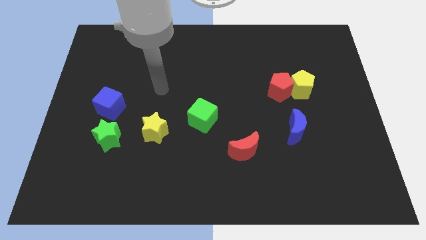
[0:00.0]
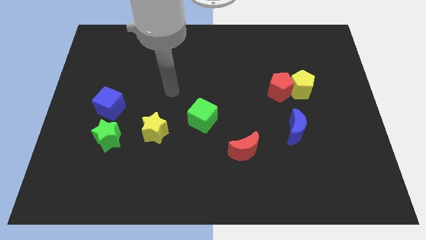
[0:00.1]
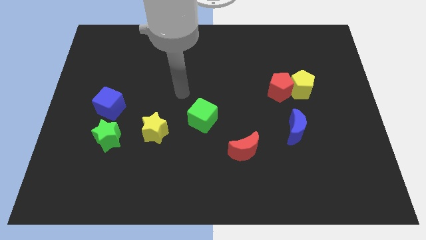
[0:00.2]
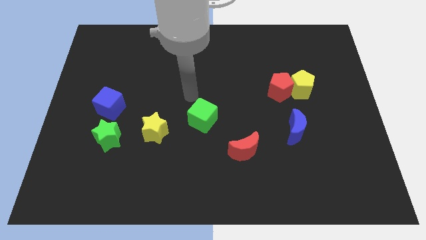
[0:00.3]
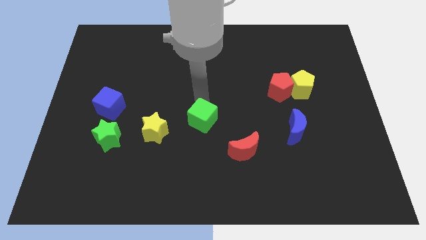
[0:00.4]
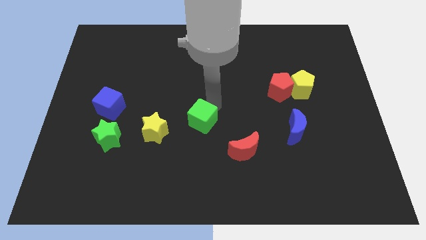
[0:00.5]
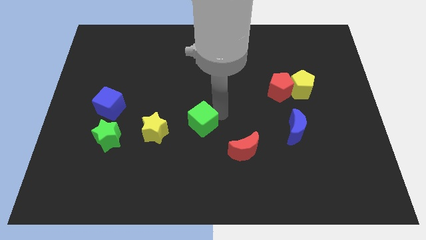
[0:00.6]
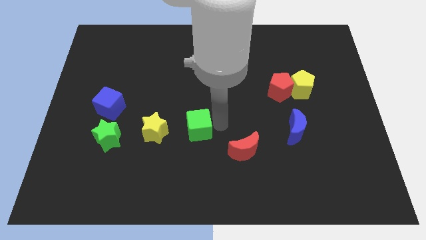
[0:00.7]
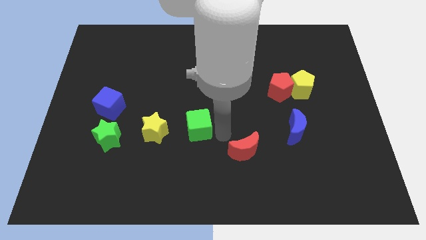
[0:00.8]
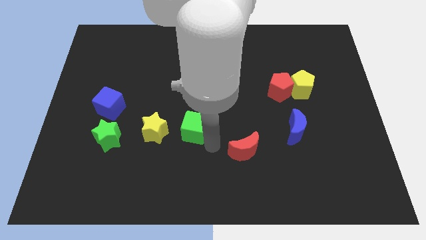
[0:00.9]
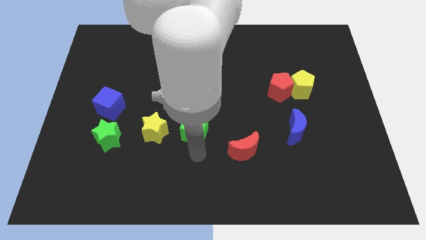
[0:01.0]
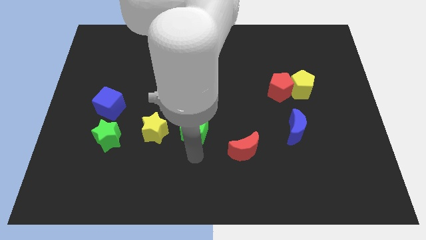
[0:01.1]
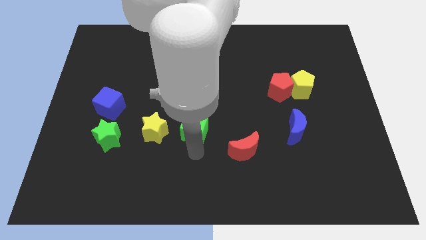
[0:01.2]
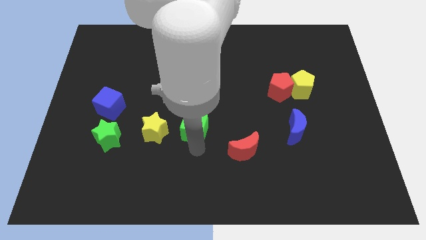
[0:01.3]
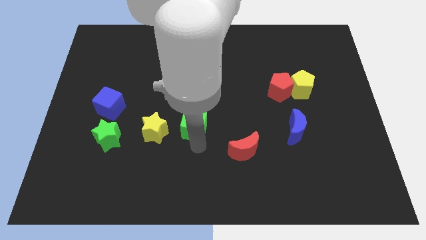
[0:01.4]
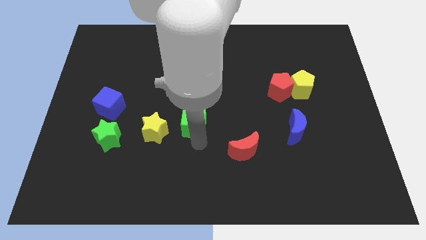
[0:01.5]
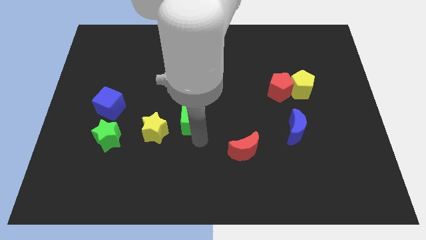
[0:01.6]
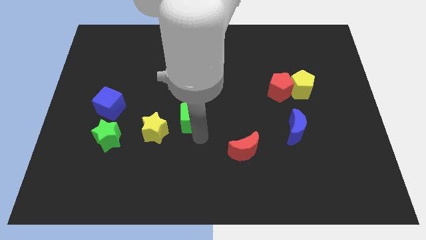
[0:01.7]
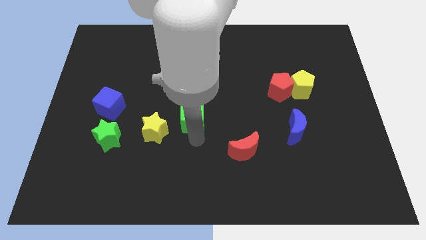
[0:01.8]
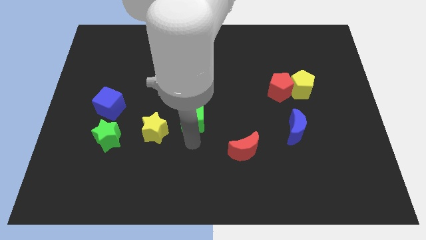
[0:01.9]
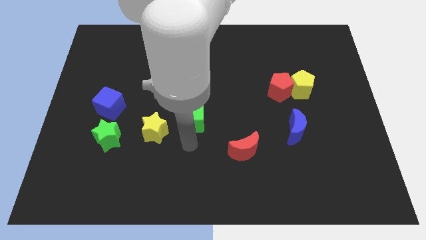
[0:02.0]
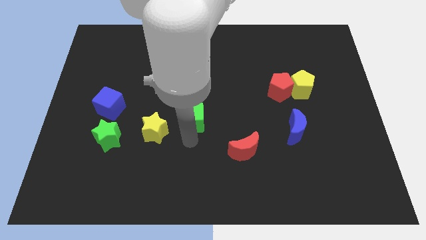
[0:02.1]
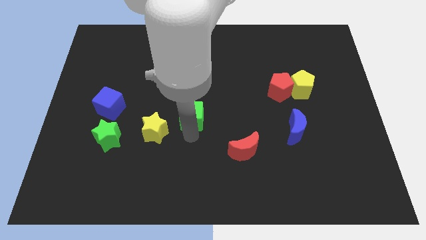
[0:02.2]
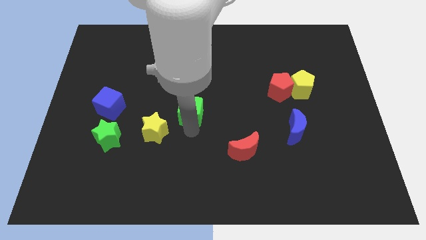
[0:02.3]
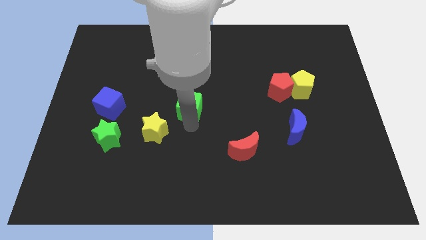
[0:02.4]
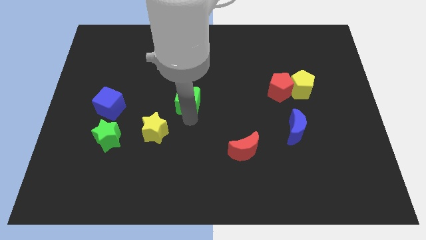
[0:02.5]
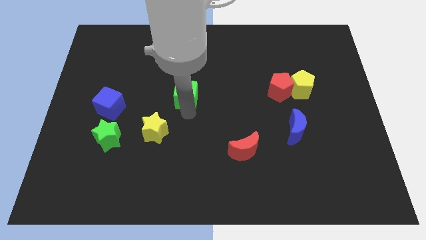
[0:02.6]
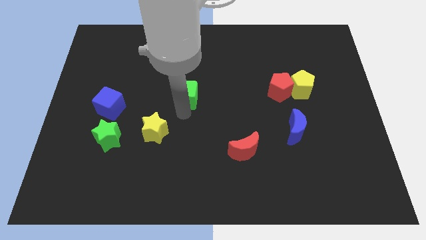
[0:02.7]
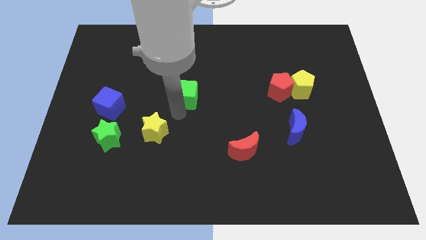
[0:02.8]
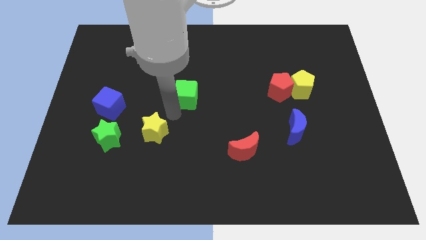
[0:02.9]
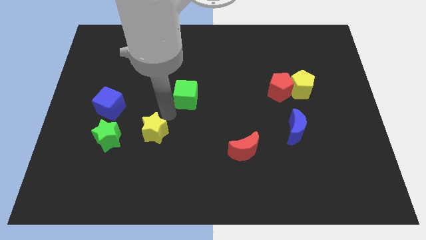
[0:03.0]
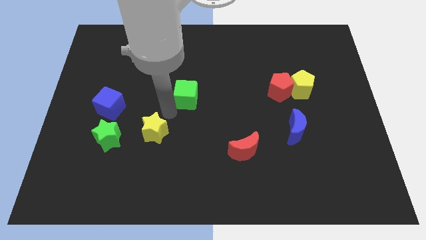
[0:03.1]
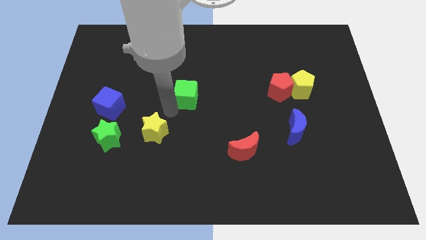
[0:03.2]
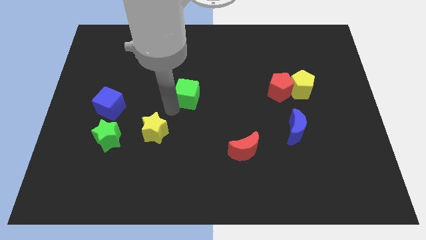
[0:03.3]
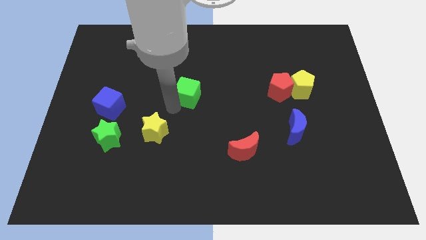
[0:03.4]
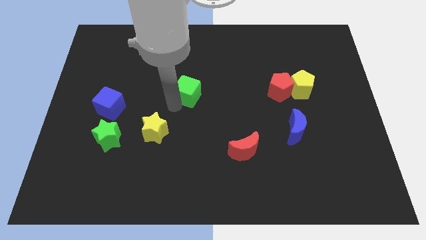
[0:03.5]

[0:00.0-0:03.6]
slightly push the green cube upwards

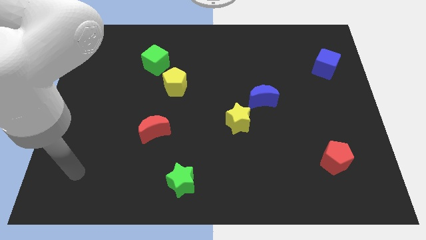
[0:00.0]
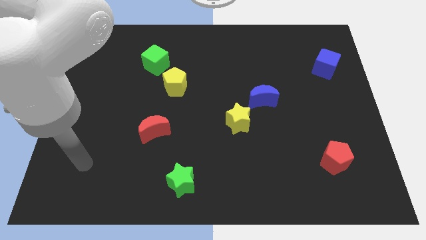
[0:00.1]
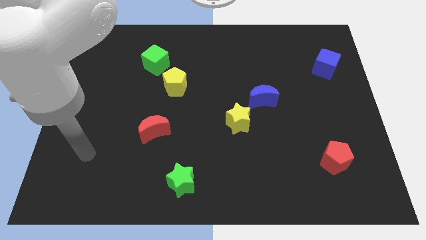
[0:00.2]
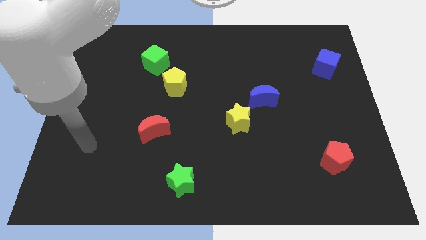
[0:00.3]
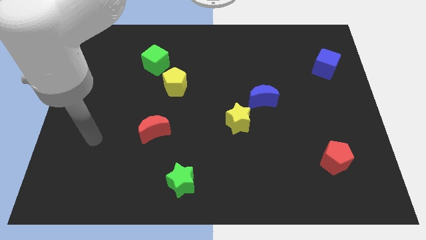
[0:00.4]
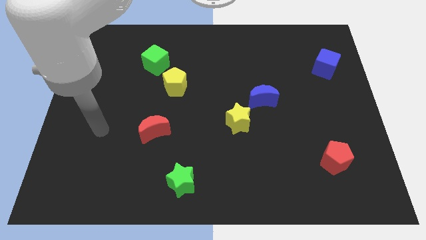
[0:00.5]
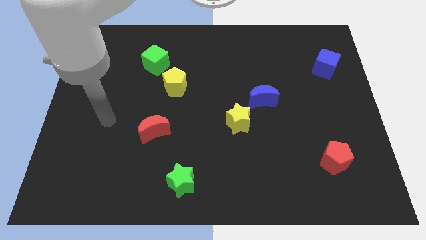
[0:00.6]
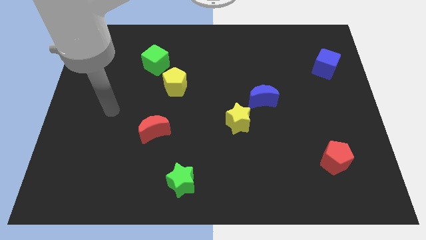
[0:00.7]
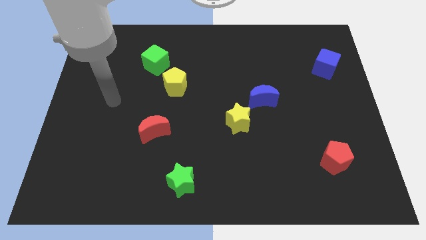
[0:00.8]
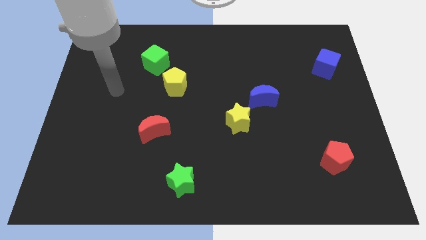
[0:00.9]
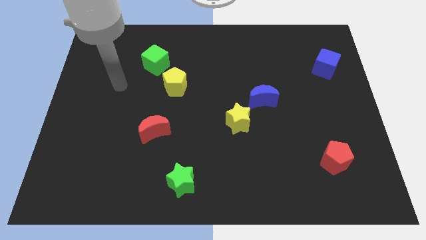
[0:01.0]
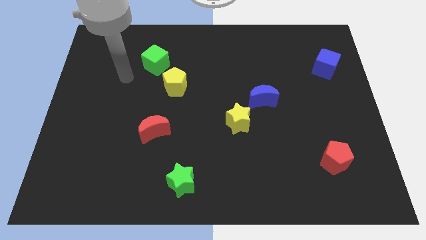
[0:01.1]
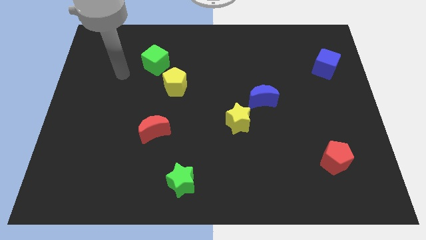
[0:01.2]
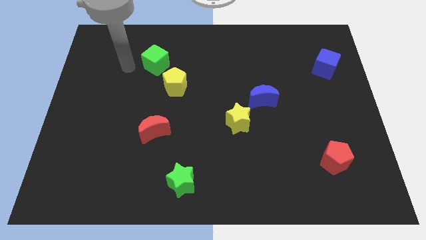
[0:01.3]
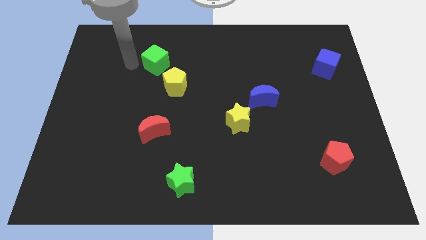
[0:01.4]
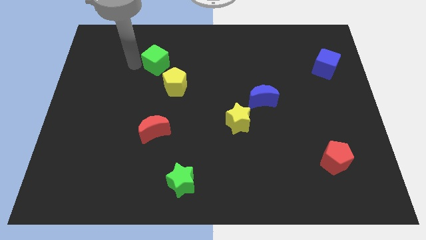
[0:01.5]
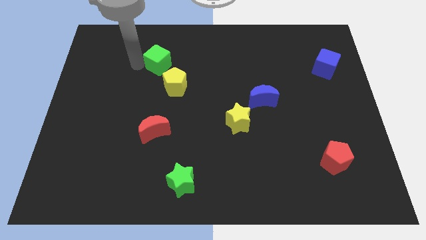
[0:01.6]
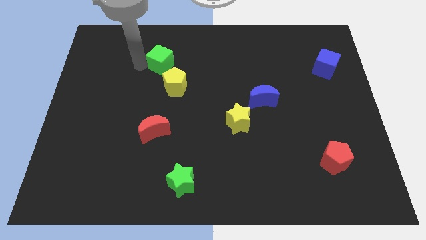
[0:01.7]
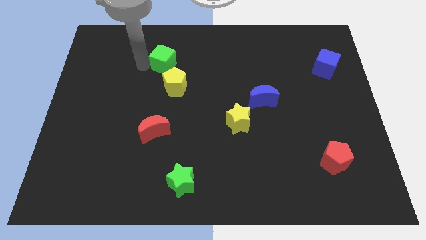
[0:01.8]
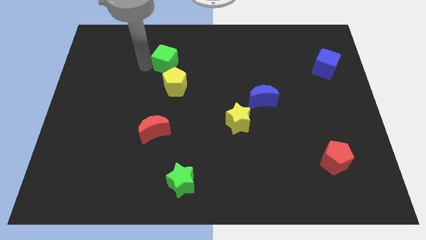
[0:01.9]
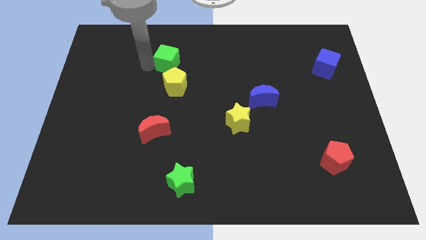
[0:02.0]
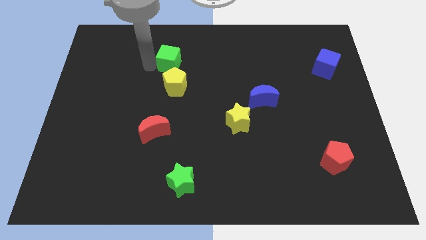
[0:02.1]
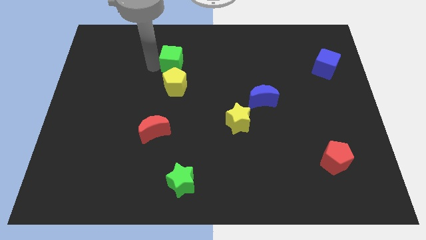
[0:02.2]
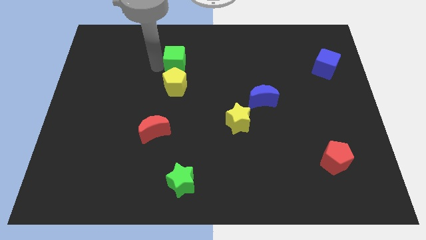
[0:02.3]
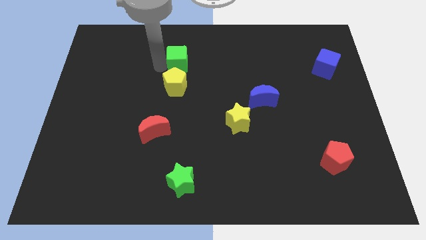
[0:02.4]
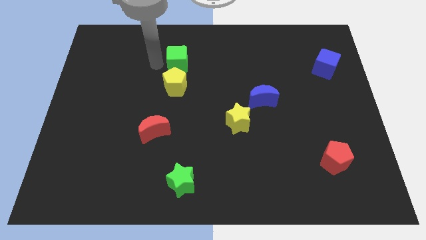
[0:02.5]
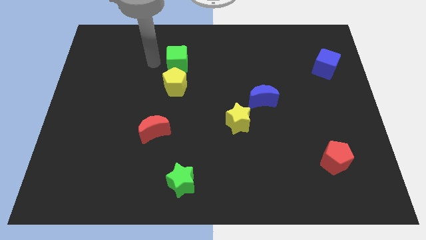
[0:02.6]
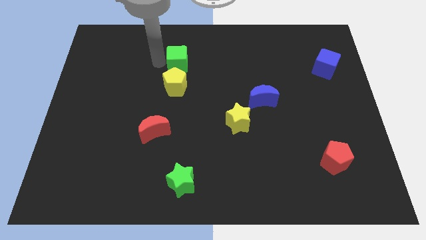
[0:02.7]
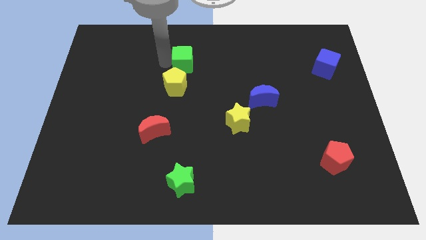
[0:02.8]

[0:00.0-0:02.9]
move the green cube to the right a bit

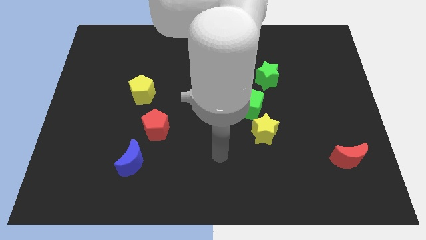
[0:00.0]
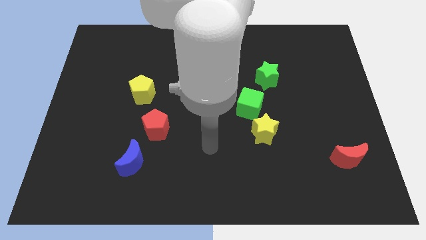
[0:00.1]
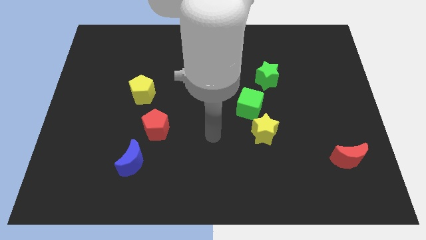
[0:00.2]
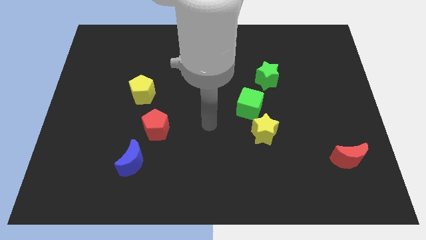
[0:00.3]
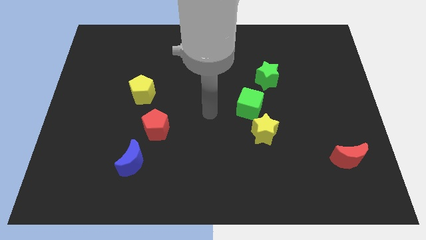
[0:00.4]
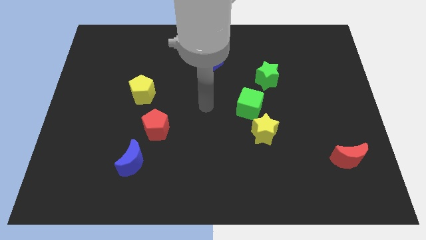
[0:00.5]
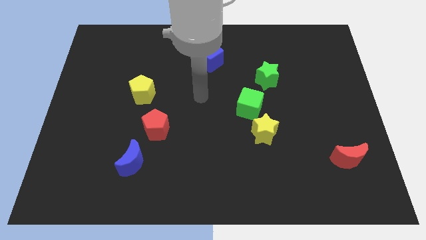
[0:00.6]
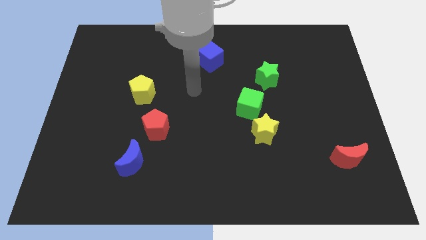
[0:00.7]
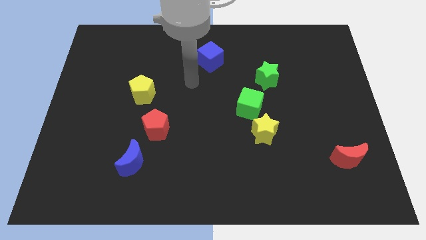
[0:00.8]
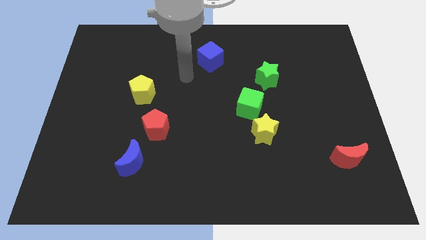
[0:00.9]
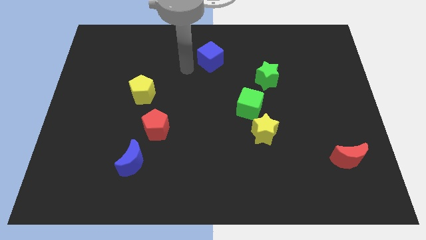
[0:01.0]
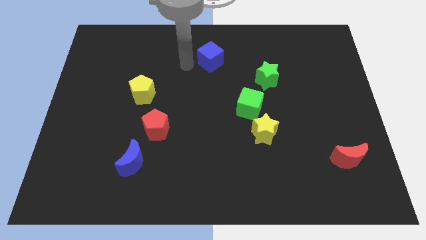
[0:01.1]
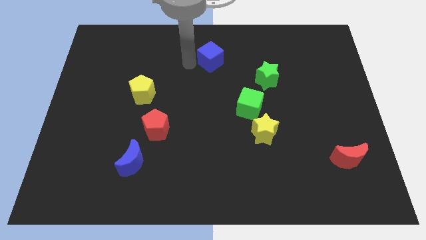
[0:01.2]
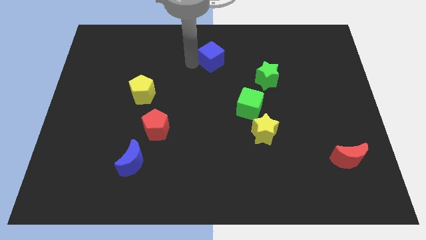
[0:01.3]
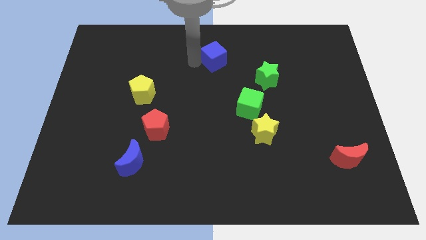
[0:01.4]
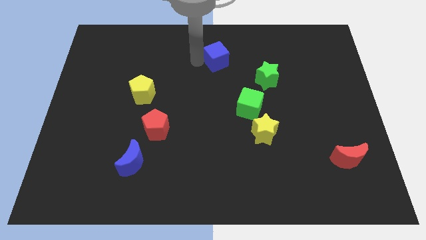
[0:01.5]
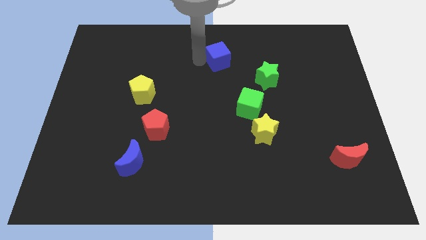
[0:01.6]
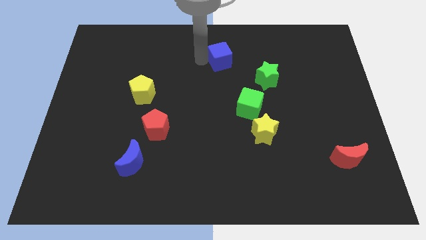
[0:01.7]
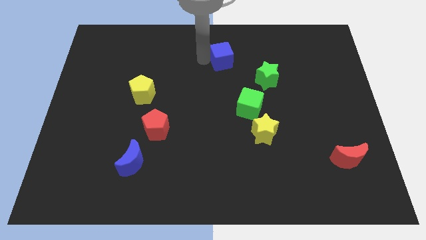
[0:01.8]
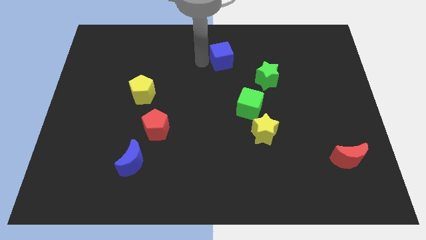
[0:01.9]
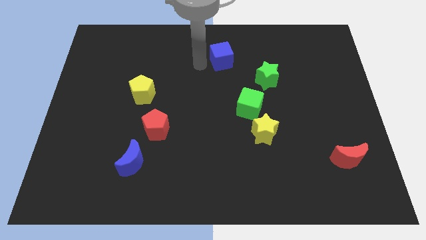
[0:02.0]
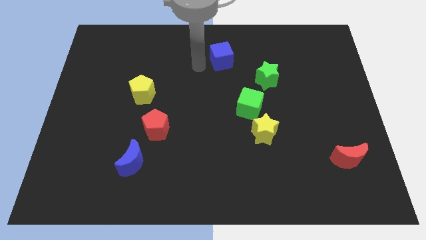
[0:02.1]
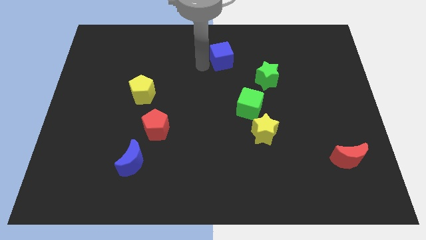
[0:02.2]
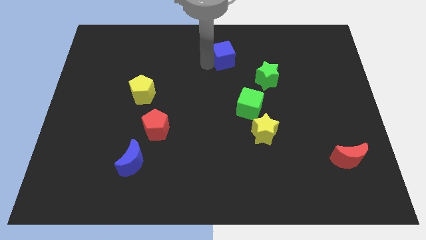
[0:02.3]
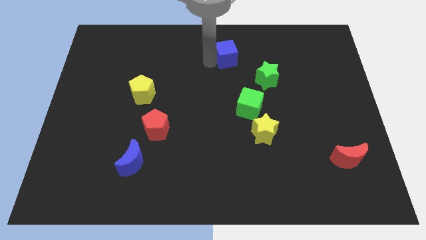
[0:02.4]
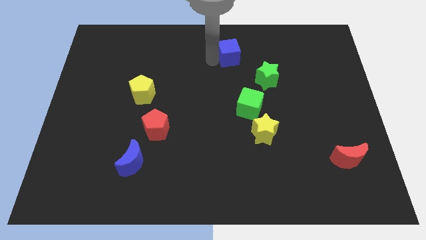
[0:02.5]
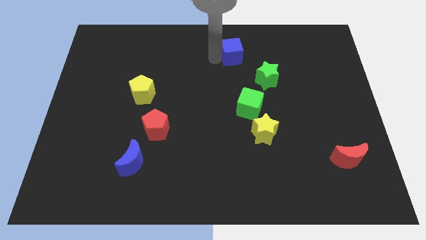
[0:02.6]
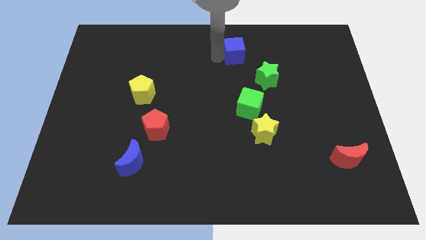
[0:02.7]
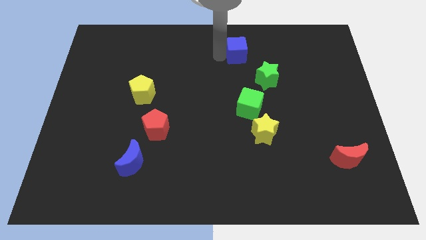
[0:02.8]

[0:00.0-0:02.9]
slightly push the blue cube right
